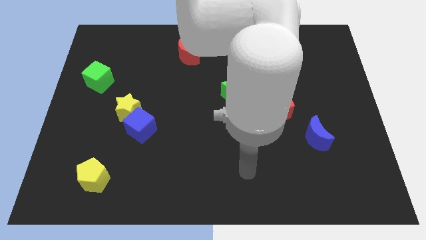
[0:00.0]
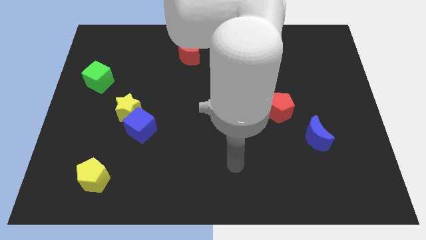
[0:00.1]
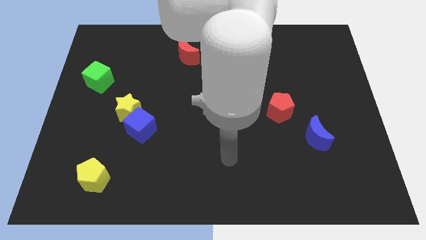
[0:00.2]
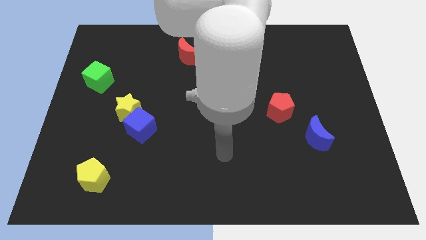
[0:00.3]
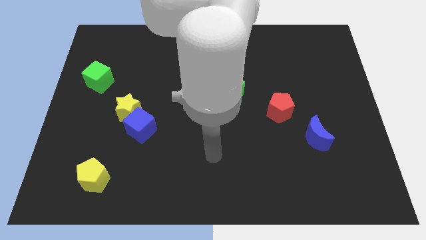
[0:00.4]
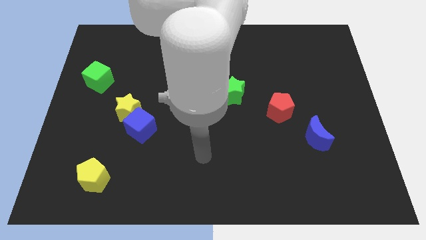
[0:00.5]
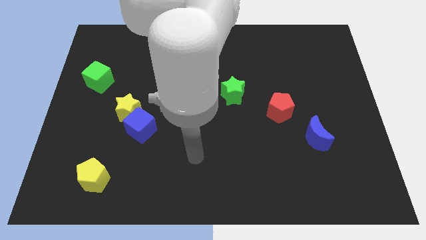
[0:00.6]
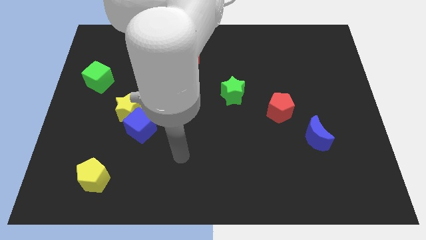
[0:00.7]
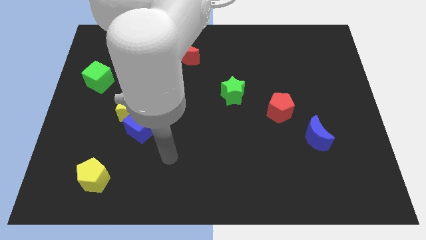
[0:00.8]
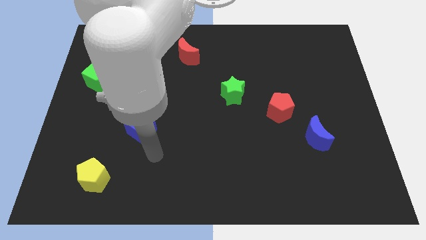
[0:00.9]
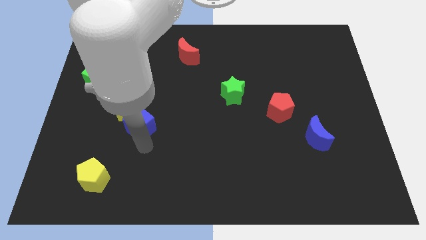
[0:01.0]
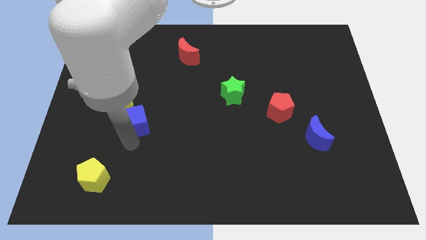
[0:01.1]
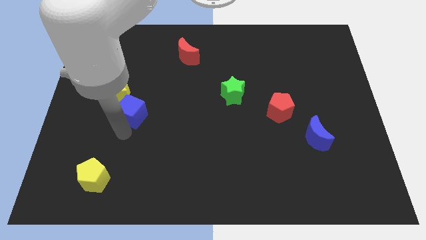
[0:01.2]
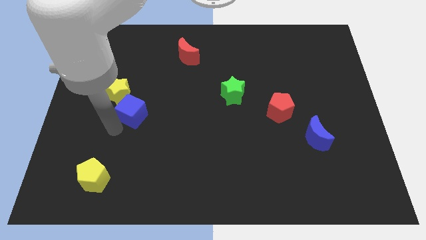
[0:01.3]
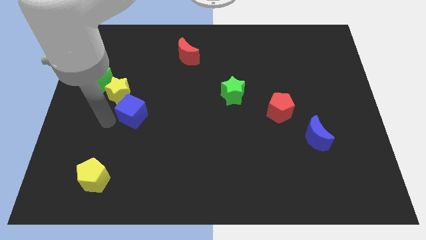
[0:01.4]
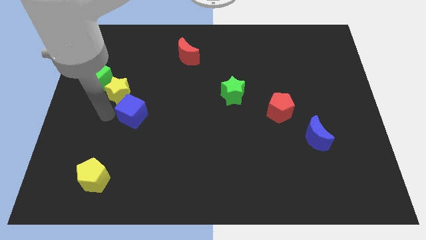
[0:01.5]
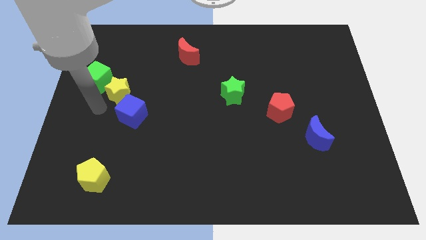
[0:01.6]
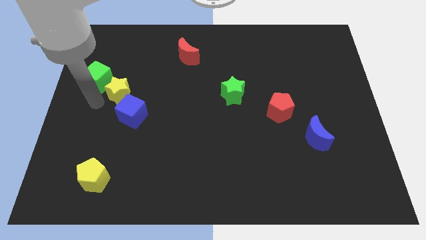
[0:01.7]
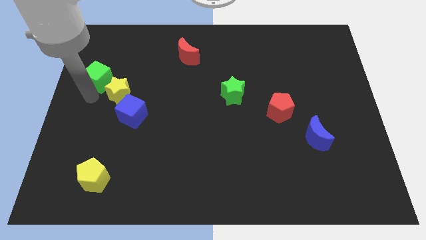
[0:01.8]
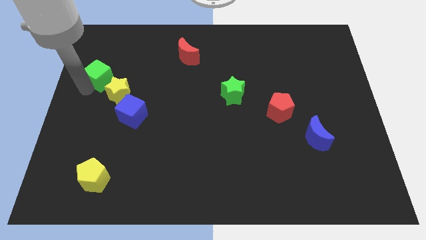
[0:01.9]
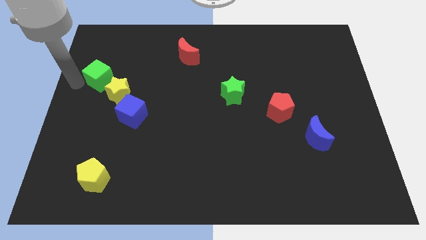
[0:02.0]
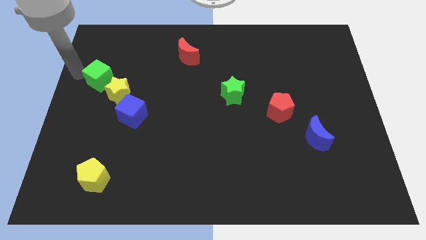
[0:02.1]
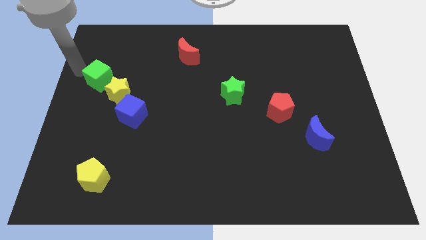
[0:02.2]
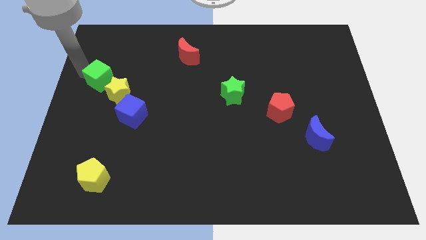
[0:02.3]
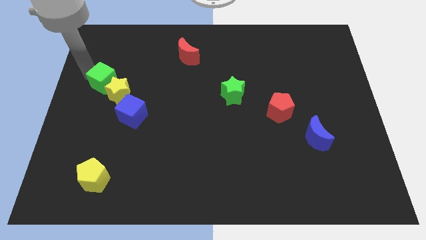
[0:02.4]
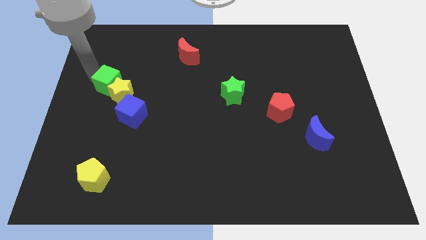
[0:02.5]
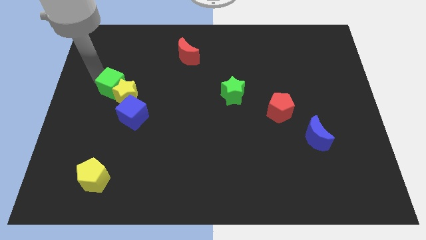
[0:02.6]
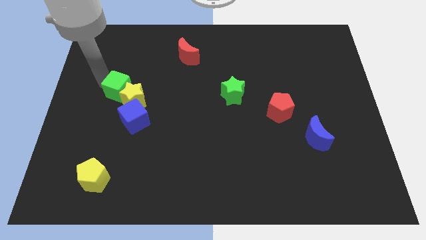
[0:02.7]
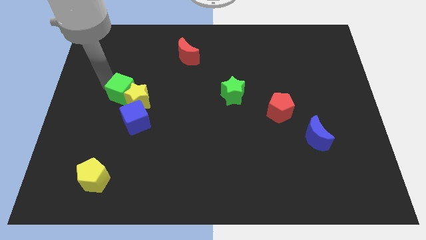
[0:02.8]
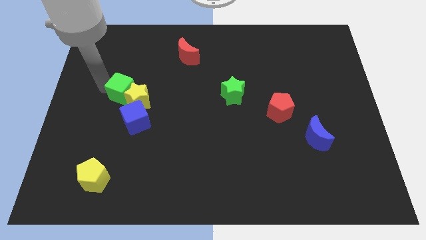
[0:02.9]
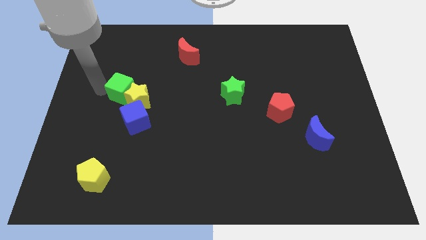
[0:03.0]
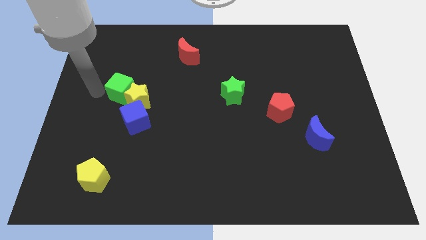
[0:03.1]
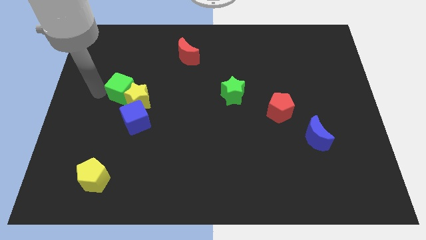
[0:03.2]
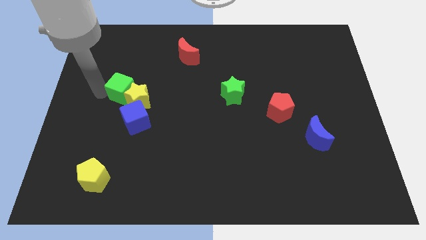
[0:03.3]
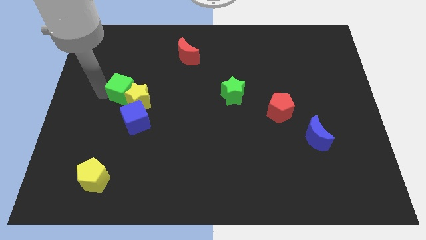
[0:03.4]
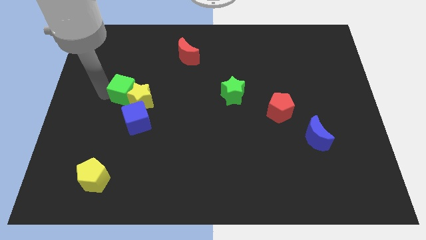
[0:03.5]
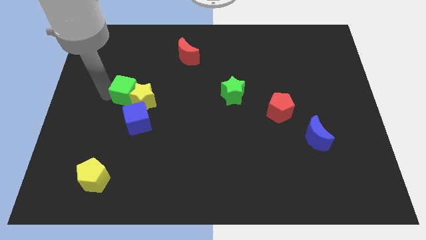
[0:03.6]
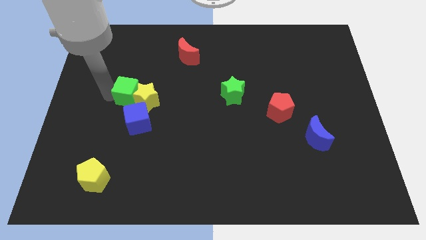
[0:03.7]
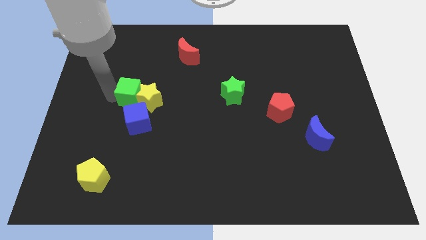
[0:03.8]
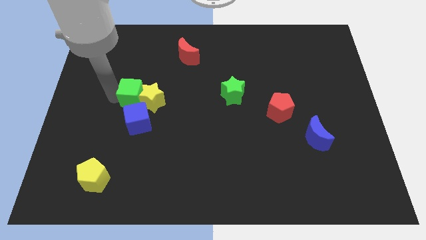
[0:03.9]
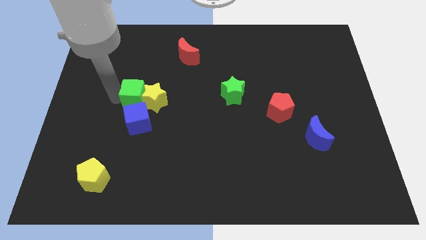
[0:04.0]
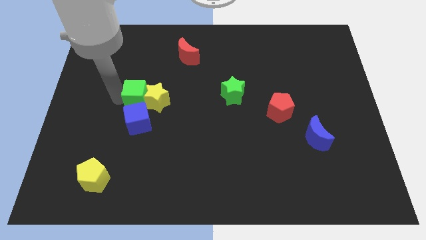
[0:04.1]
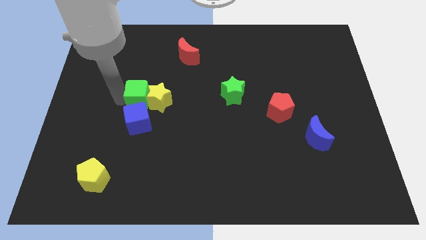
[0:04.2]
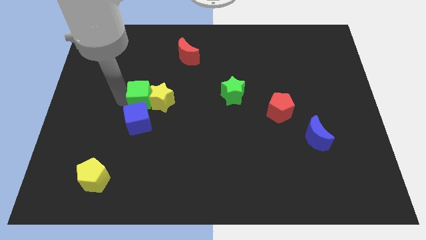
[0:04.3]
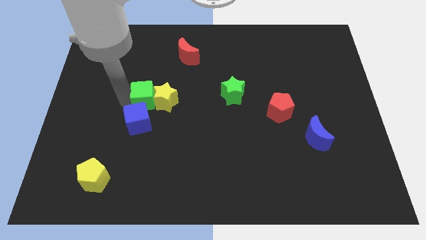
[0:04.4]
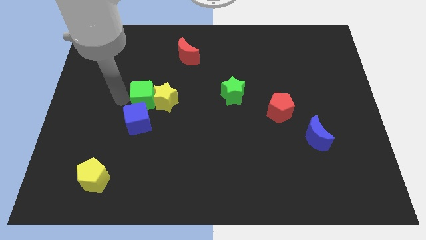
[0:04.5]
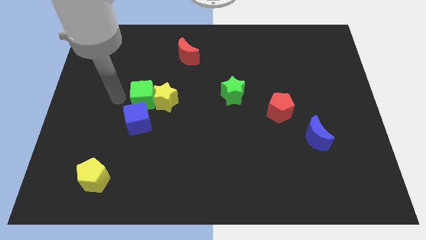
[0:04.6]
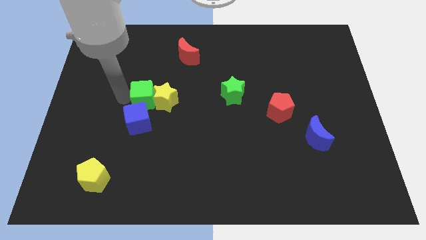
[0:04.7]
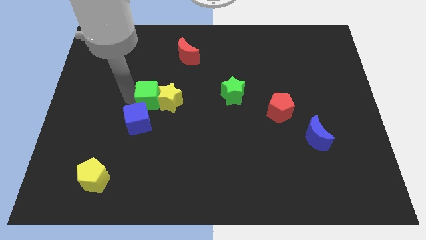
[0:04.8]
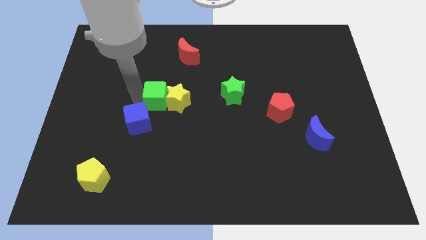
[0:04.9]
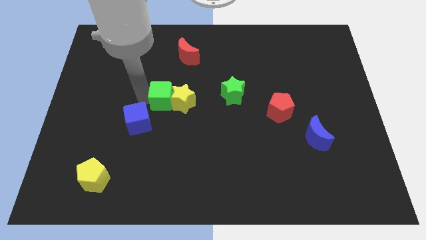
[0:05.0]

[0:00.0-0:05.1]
push the green cube to the center of the board

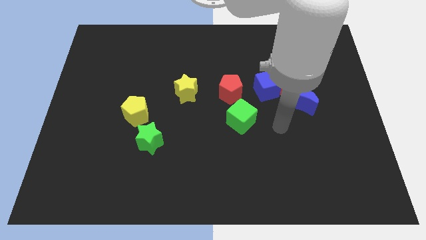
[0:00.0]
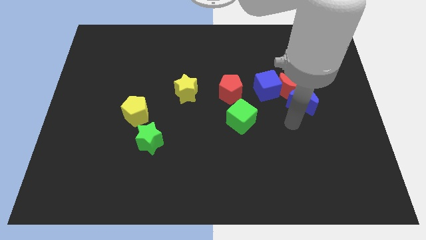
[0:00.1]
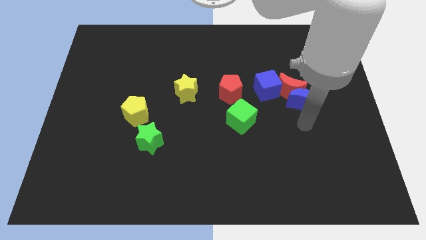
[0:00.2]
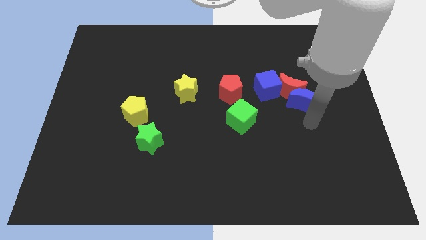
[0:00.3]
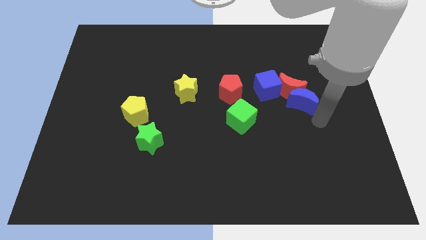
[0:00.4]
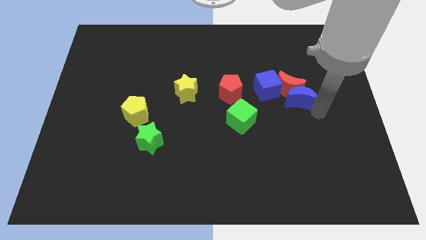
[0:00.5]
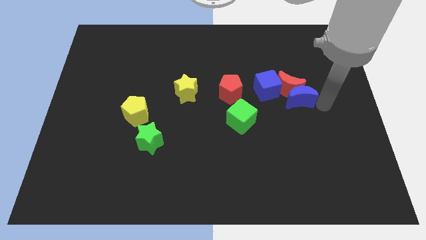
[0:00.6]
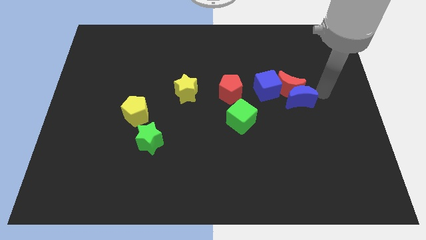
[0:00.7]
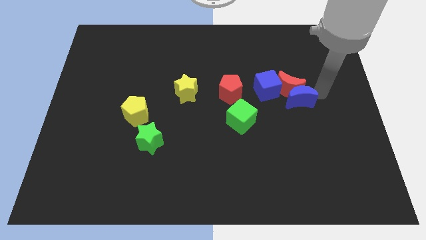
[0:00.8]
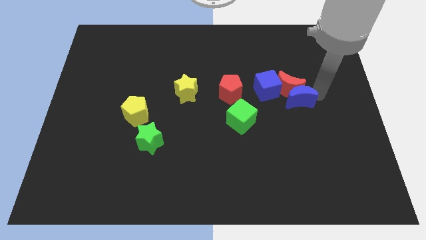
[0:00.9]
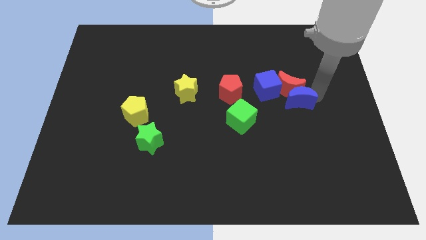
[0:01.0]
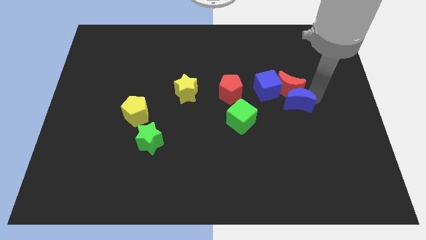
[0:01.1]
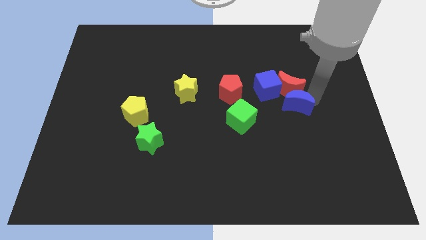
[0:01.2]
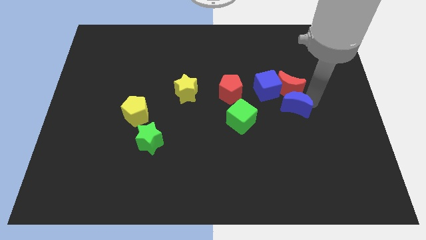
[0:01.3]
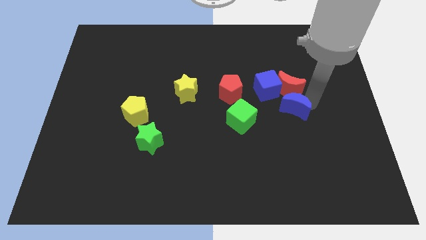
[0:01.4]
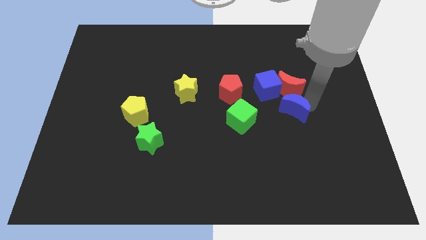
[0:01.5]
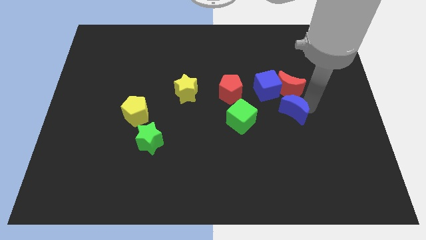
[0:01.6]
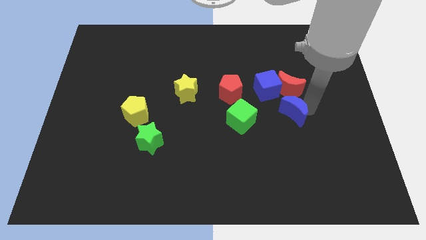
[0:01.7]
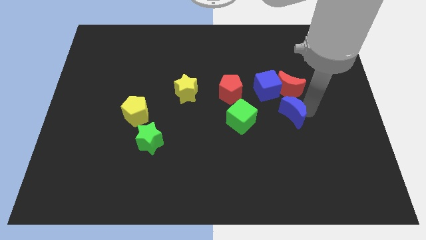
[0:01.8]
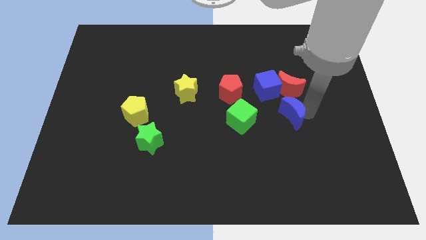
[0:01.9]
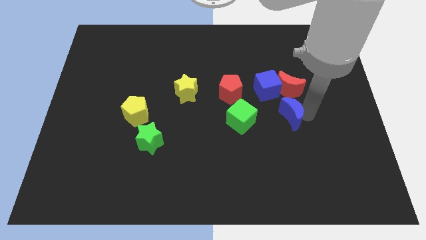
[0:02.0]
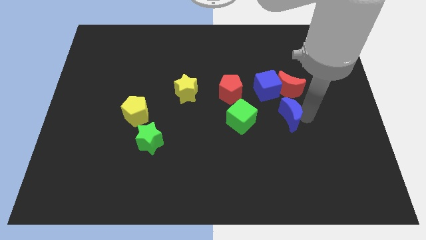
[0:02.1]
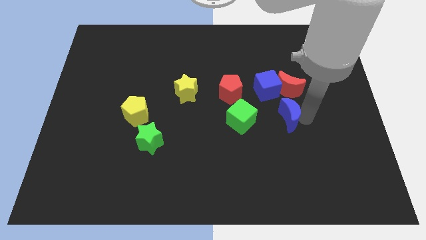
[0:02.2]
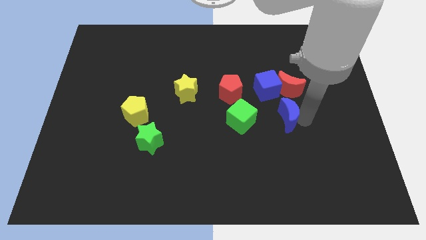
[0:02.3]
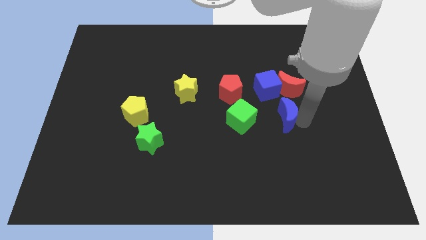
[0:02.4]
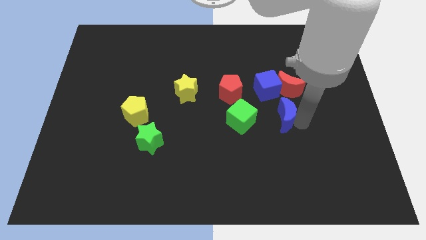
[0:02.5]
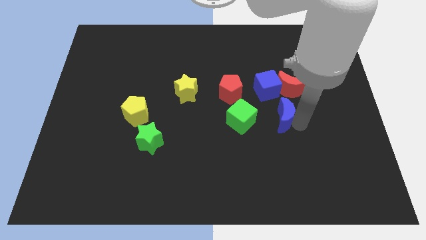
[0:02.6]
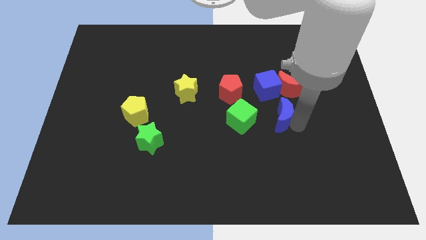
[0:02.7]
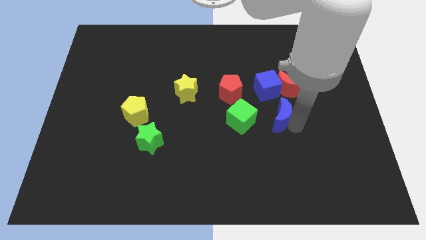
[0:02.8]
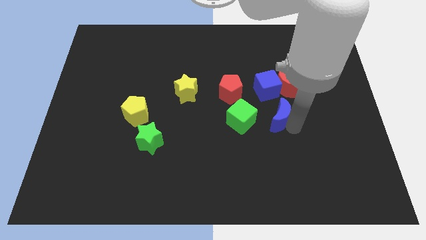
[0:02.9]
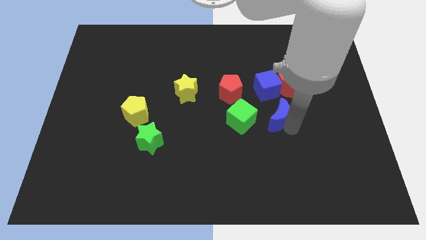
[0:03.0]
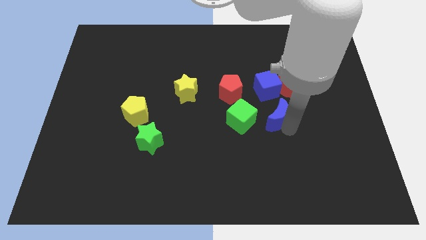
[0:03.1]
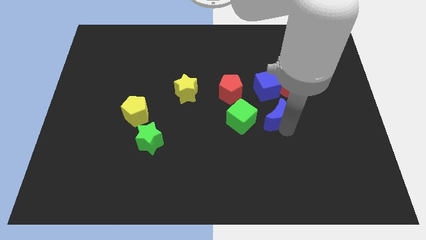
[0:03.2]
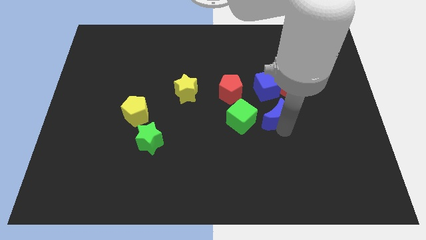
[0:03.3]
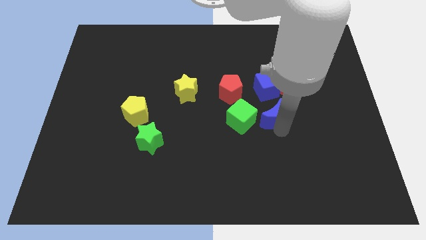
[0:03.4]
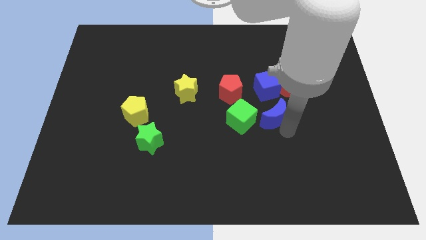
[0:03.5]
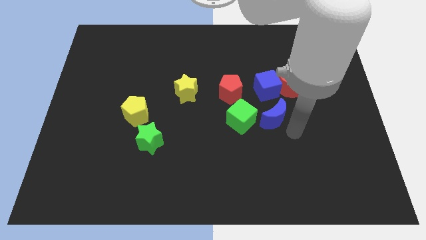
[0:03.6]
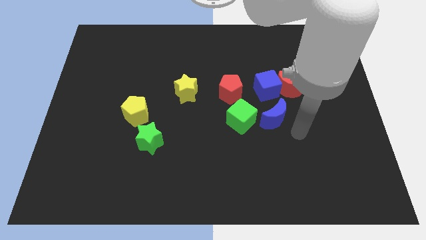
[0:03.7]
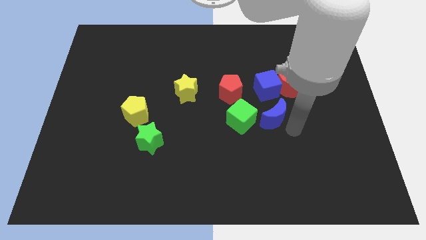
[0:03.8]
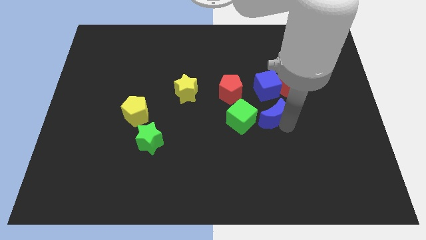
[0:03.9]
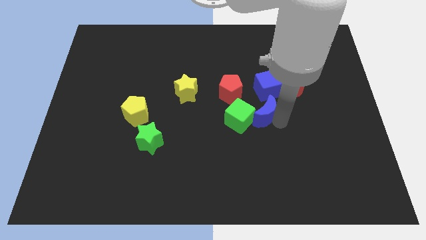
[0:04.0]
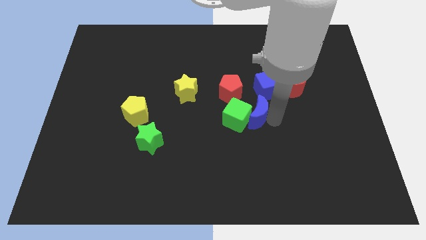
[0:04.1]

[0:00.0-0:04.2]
slide the blue moon to the center of the board
